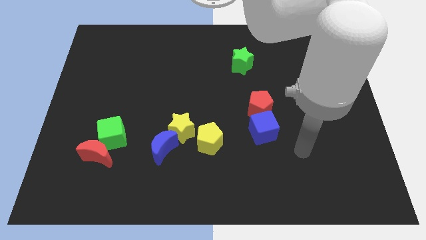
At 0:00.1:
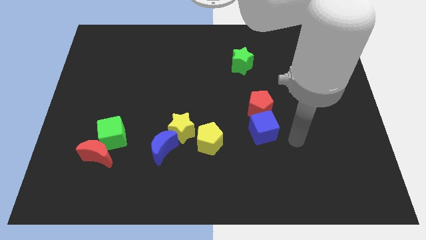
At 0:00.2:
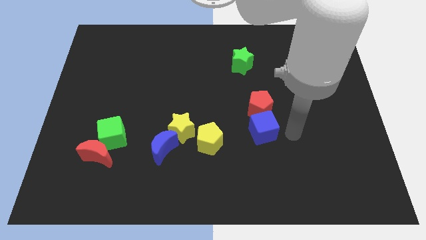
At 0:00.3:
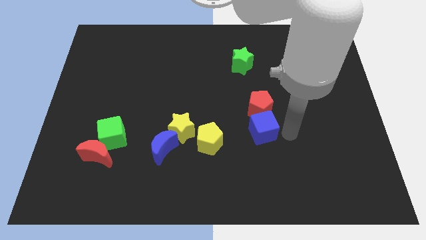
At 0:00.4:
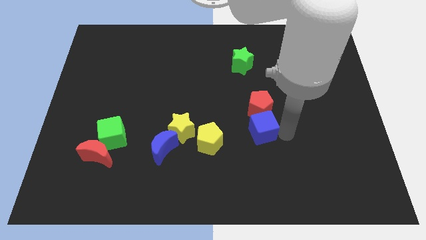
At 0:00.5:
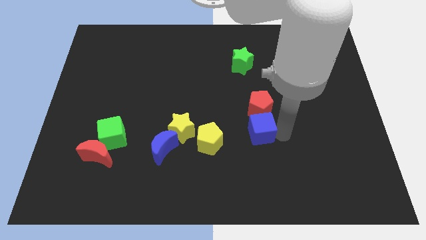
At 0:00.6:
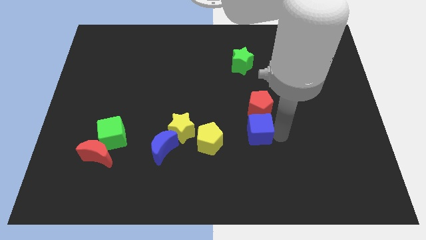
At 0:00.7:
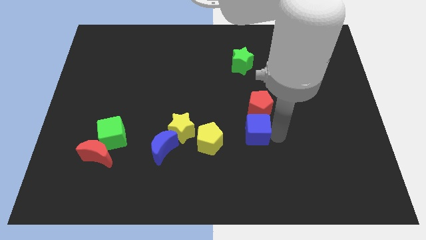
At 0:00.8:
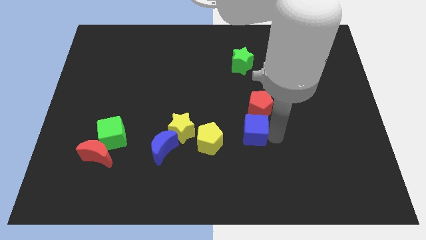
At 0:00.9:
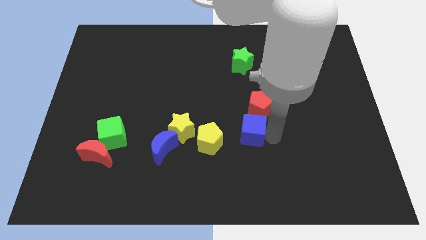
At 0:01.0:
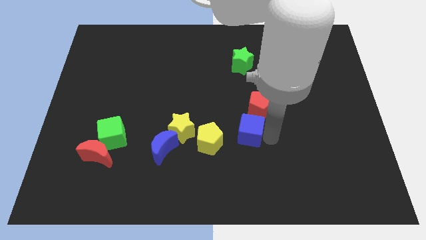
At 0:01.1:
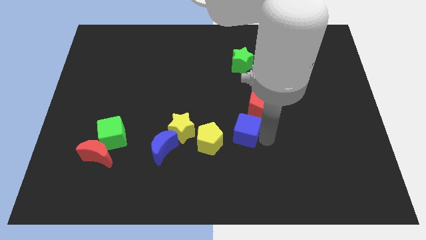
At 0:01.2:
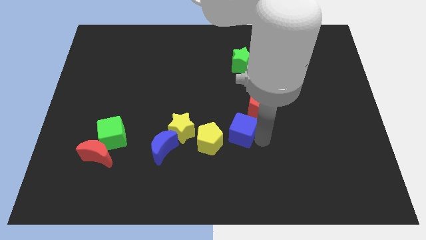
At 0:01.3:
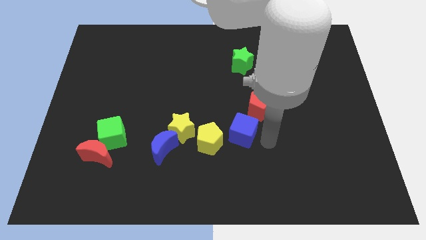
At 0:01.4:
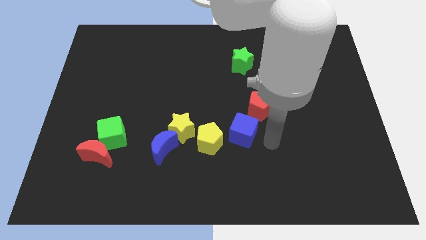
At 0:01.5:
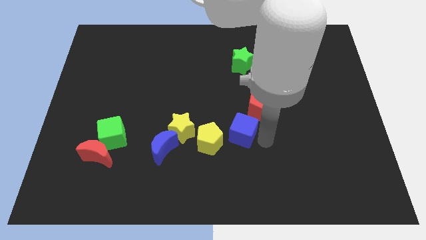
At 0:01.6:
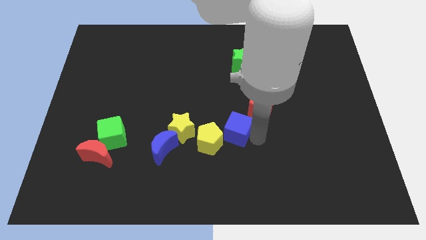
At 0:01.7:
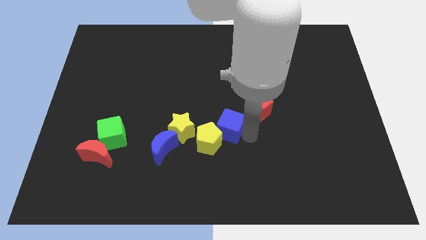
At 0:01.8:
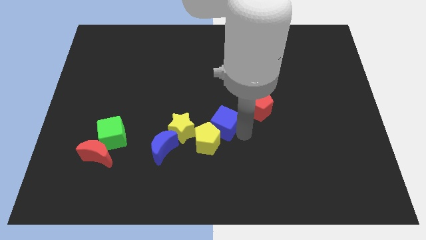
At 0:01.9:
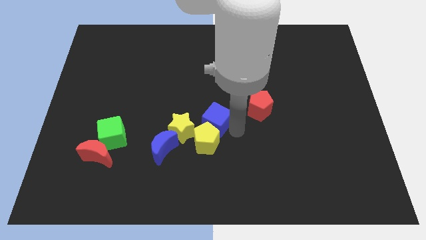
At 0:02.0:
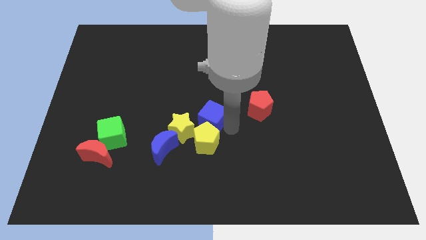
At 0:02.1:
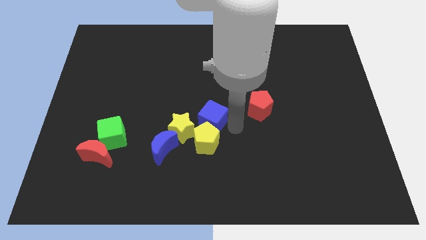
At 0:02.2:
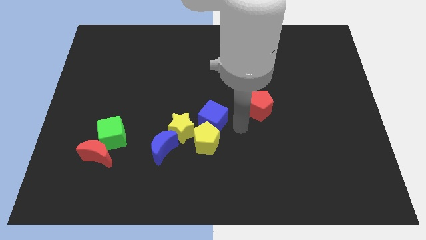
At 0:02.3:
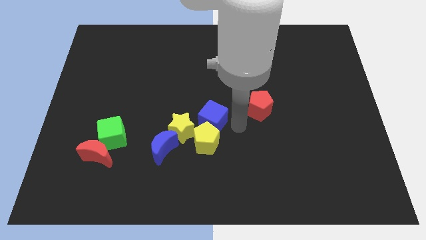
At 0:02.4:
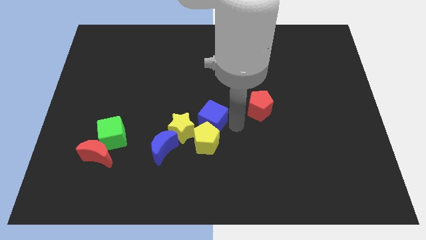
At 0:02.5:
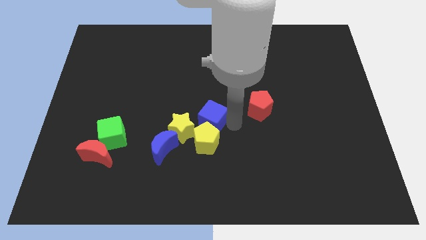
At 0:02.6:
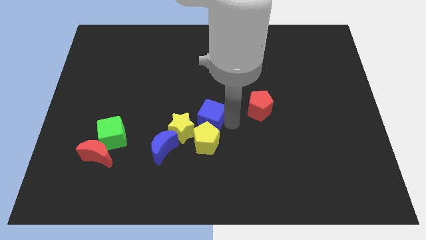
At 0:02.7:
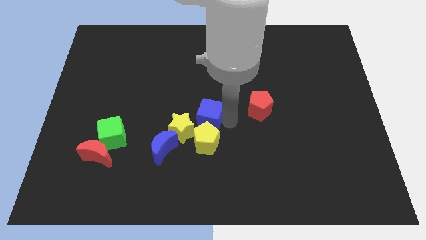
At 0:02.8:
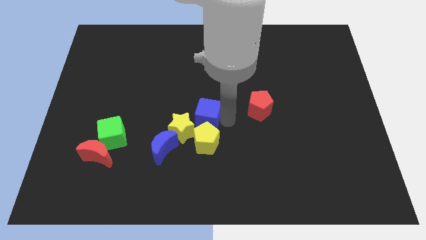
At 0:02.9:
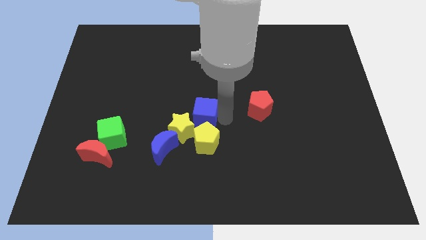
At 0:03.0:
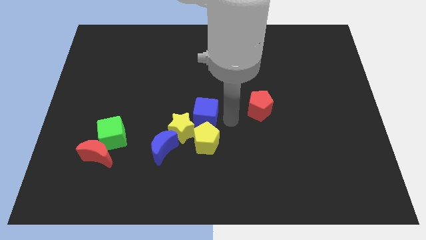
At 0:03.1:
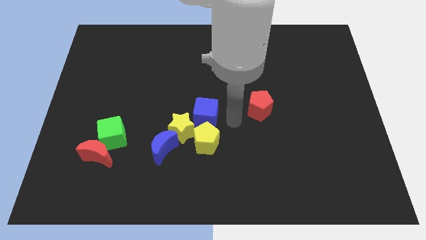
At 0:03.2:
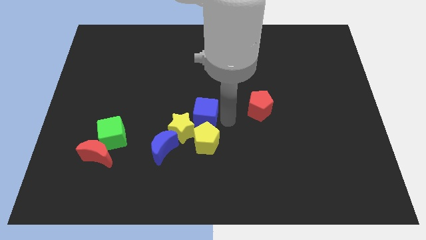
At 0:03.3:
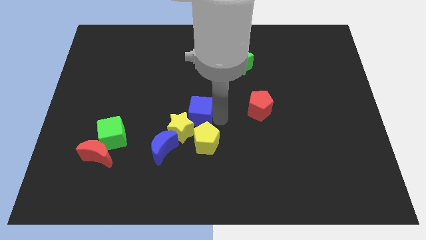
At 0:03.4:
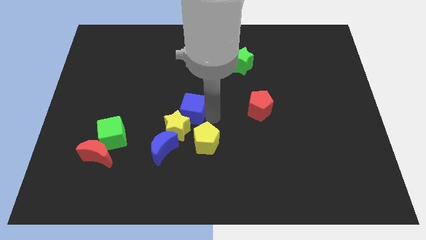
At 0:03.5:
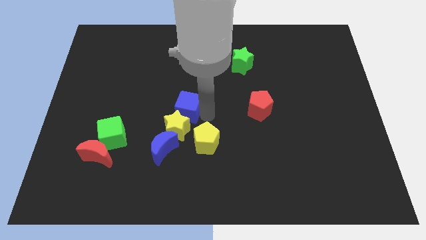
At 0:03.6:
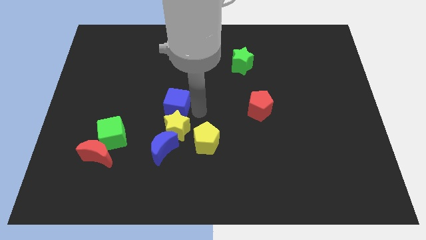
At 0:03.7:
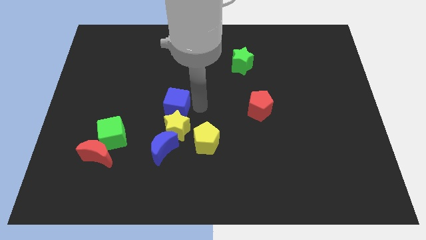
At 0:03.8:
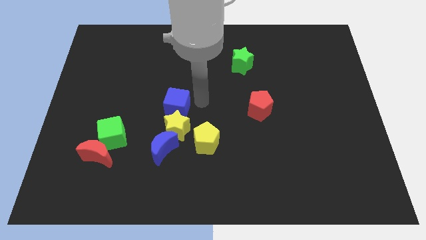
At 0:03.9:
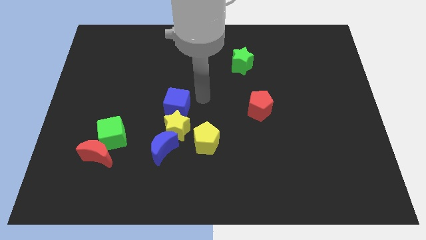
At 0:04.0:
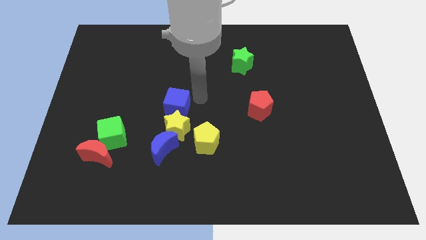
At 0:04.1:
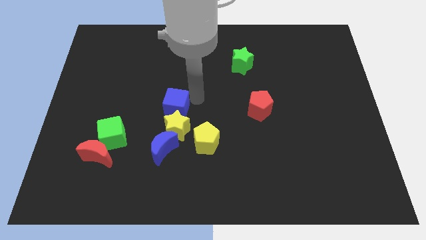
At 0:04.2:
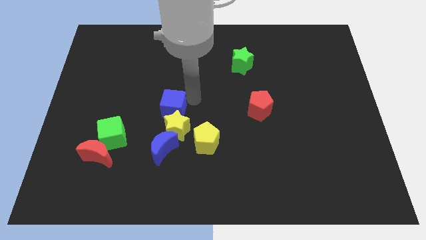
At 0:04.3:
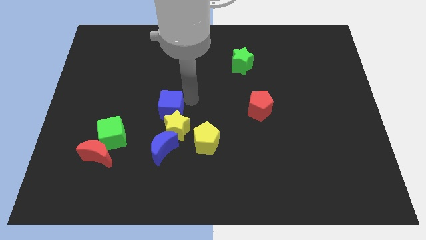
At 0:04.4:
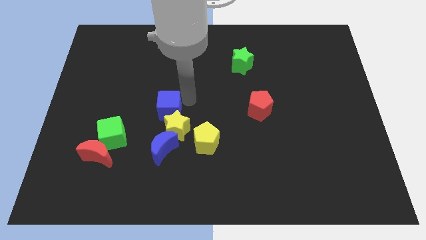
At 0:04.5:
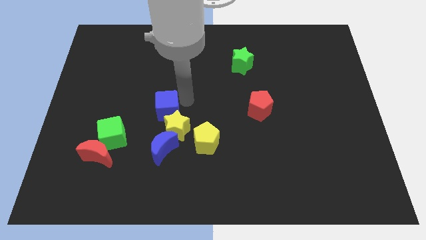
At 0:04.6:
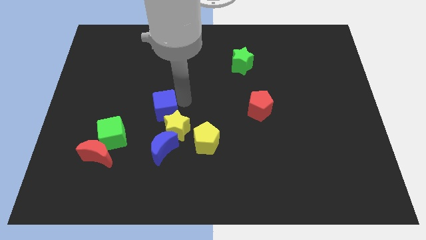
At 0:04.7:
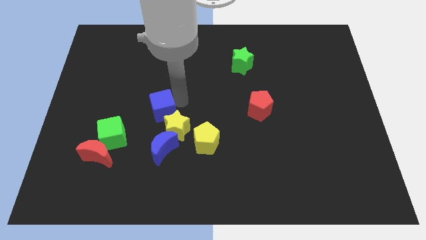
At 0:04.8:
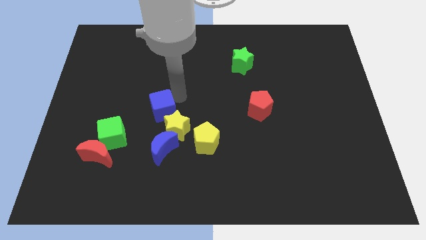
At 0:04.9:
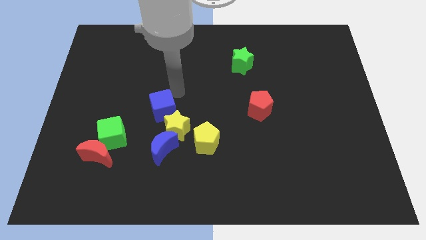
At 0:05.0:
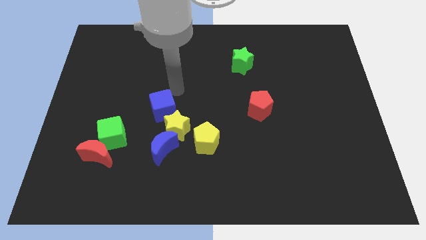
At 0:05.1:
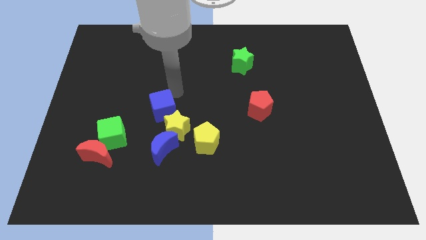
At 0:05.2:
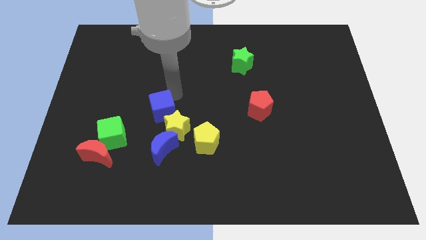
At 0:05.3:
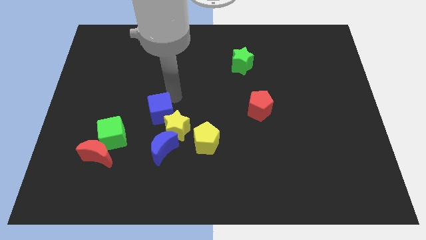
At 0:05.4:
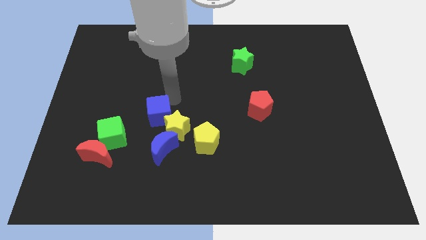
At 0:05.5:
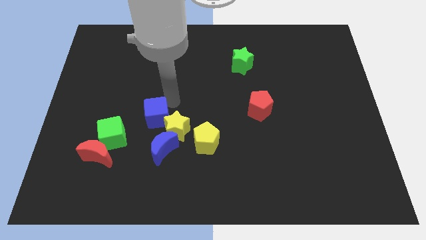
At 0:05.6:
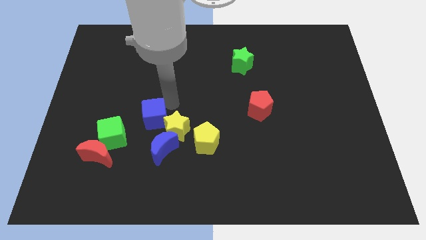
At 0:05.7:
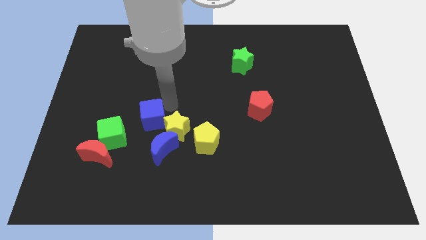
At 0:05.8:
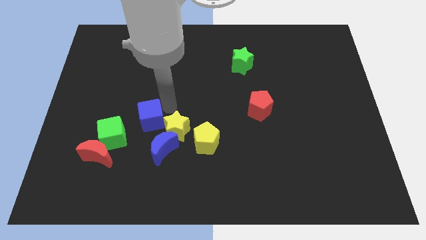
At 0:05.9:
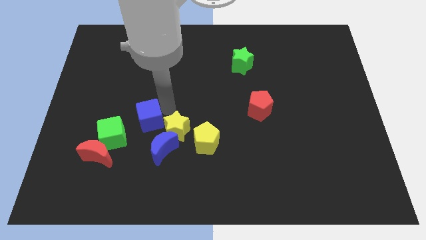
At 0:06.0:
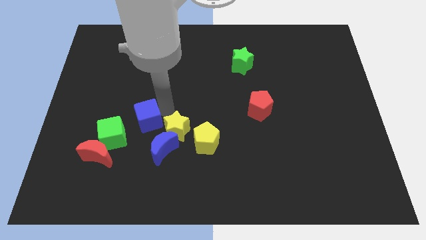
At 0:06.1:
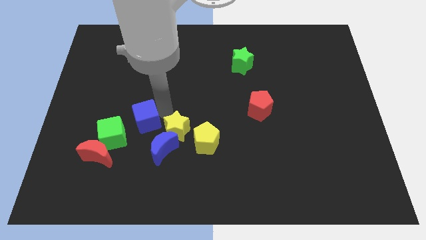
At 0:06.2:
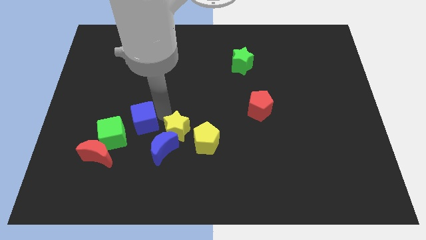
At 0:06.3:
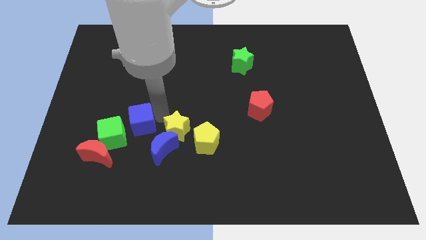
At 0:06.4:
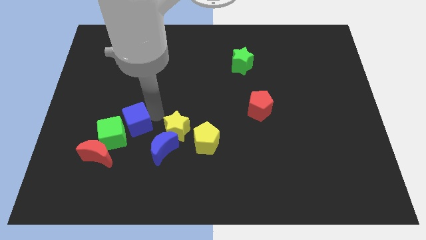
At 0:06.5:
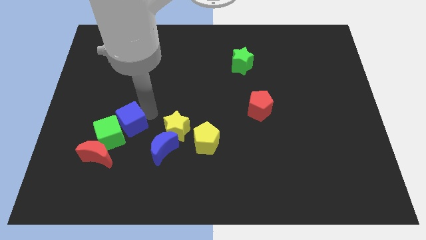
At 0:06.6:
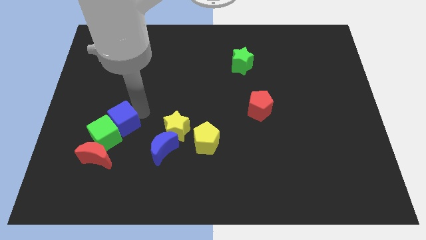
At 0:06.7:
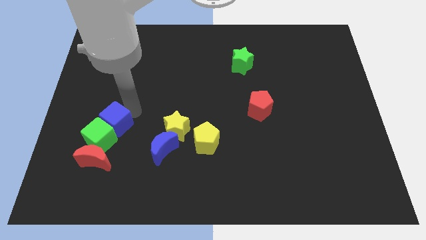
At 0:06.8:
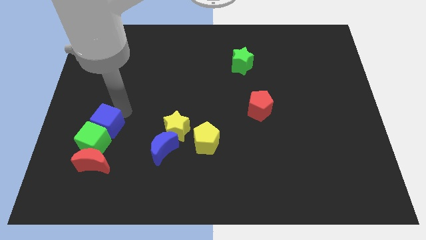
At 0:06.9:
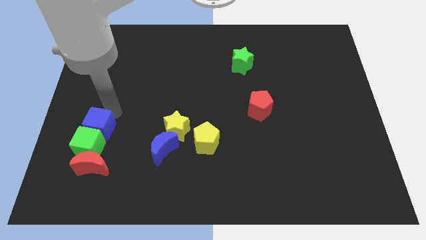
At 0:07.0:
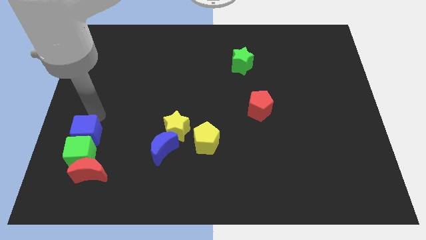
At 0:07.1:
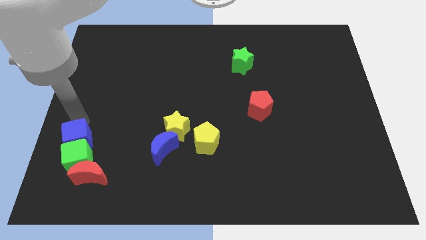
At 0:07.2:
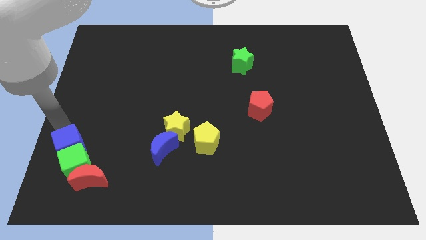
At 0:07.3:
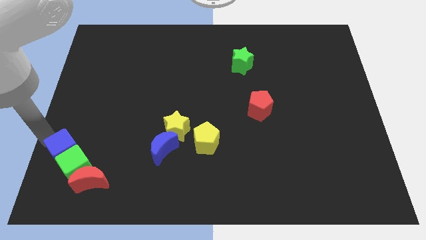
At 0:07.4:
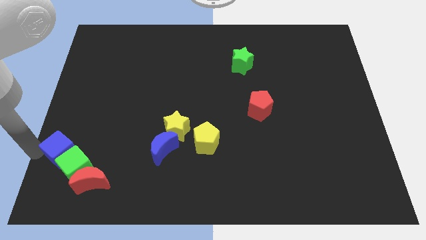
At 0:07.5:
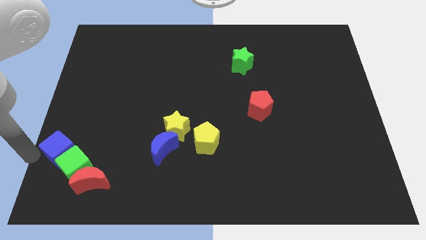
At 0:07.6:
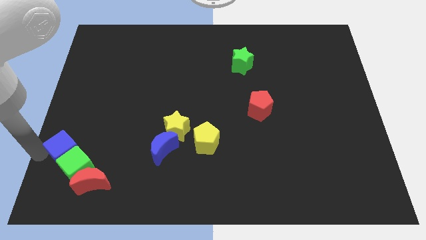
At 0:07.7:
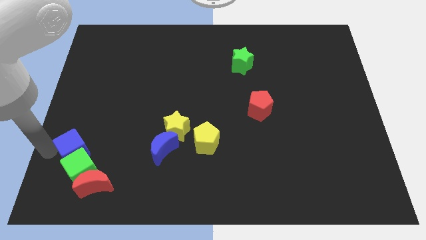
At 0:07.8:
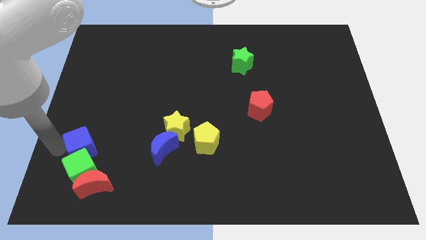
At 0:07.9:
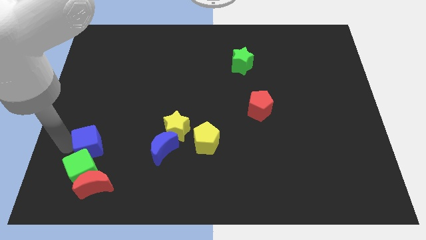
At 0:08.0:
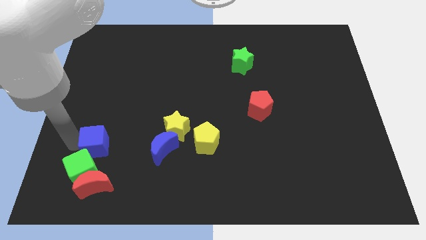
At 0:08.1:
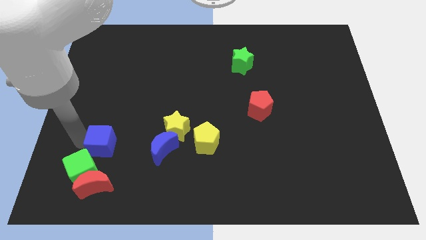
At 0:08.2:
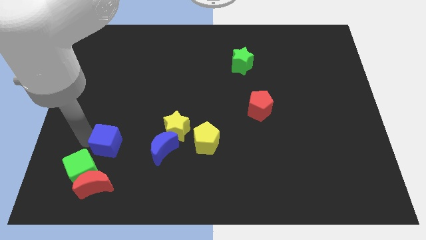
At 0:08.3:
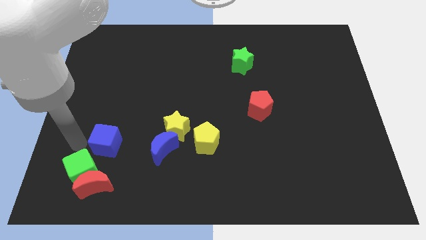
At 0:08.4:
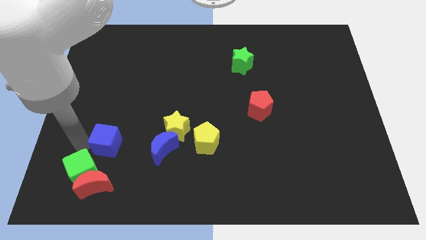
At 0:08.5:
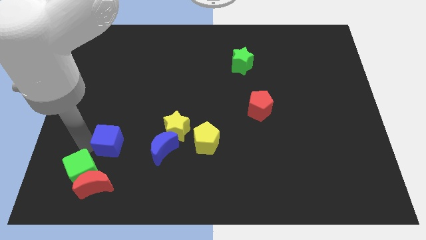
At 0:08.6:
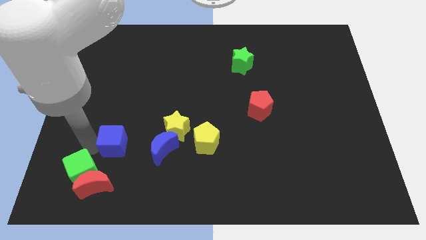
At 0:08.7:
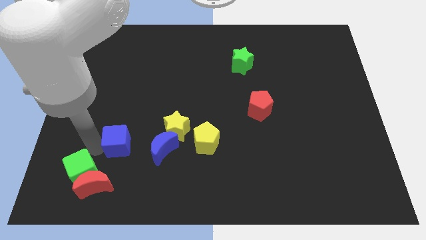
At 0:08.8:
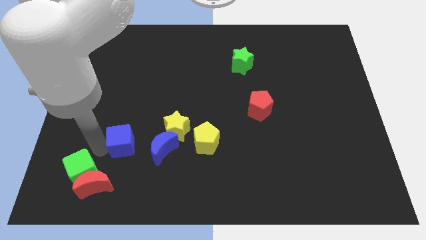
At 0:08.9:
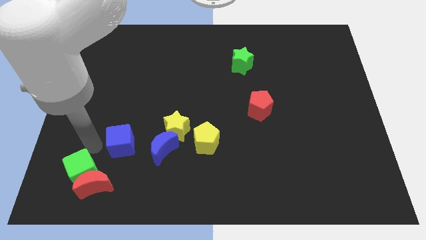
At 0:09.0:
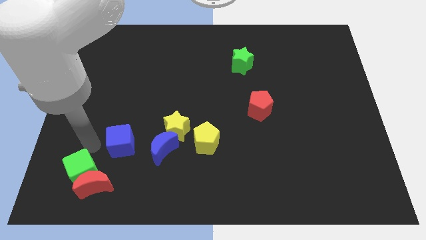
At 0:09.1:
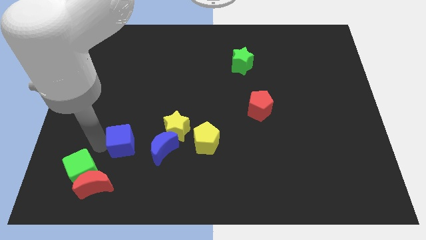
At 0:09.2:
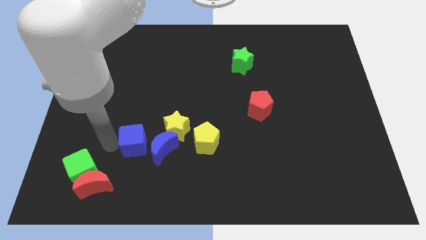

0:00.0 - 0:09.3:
put the blue cube left of the yellow pentagon
